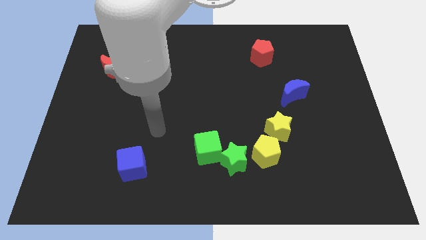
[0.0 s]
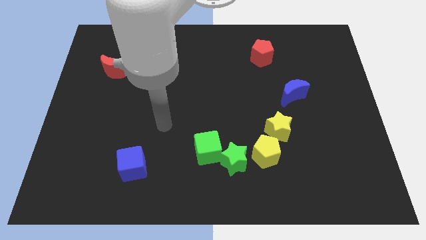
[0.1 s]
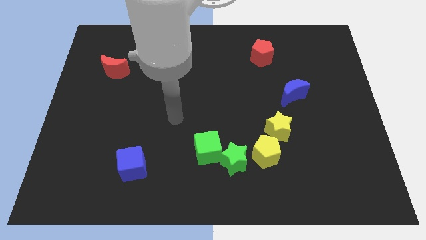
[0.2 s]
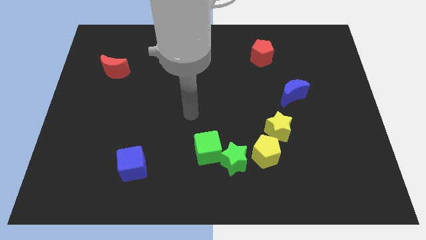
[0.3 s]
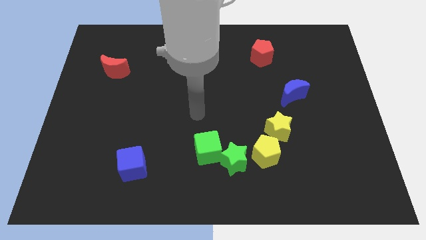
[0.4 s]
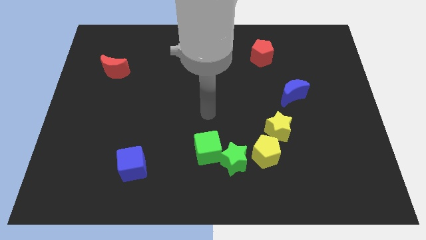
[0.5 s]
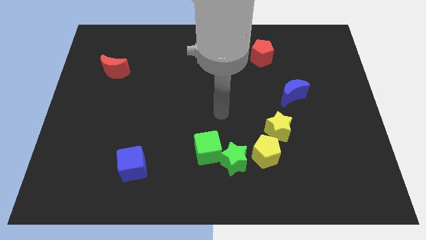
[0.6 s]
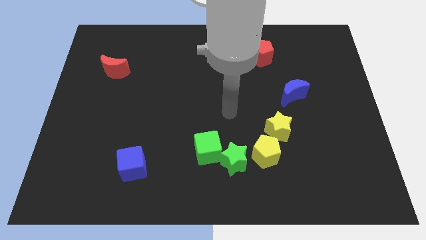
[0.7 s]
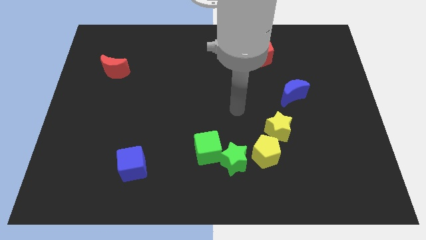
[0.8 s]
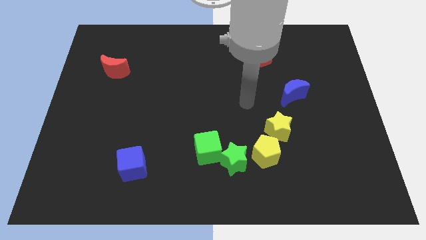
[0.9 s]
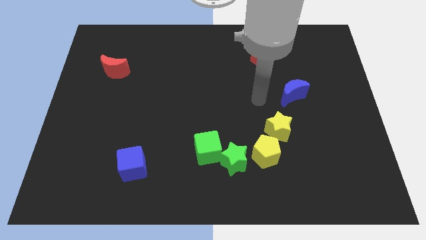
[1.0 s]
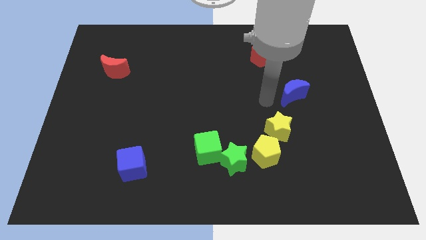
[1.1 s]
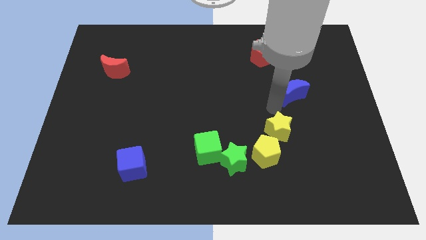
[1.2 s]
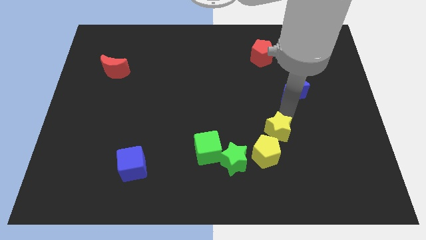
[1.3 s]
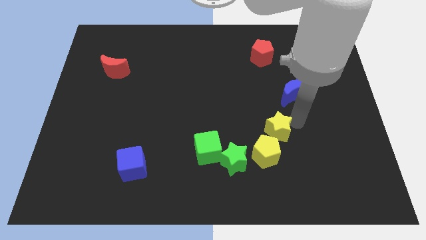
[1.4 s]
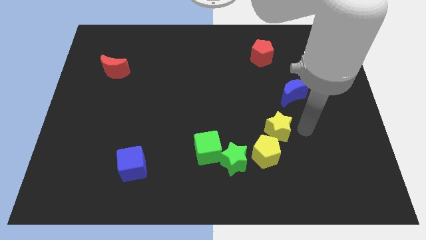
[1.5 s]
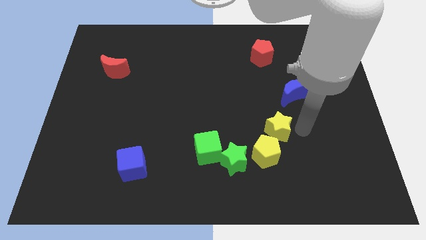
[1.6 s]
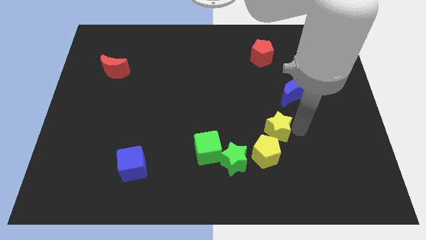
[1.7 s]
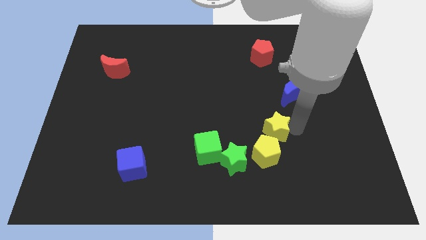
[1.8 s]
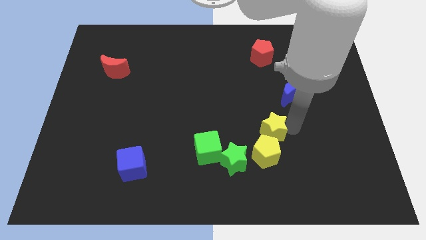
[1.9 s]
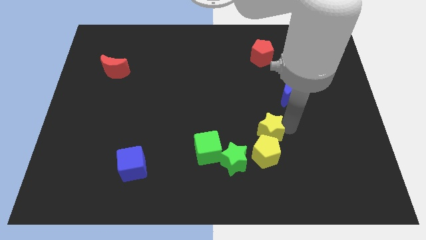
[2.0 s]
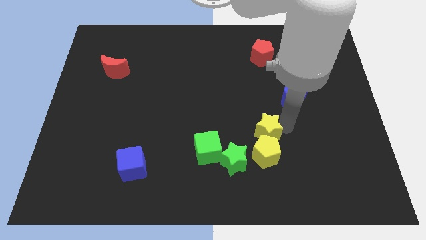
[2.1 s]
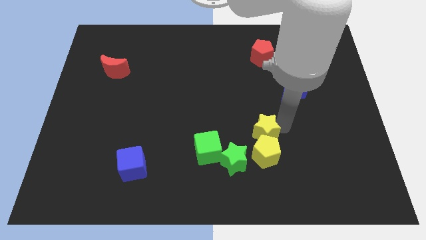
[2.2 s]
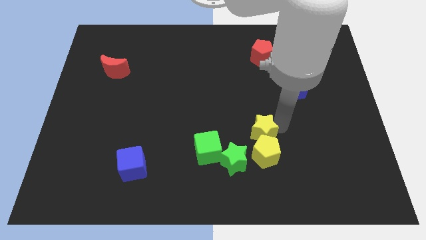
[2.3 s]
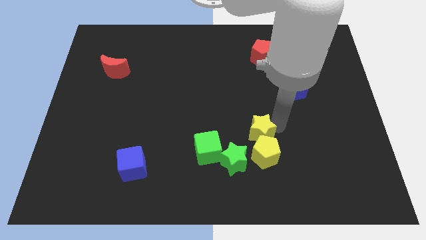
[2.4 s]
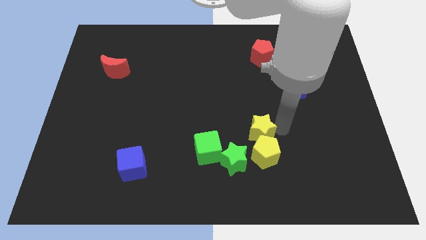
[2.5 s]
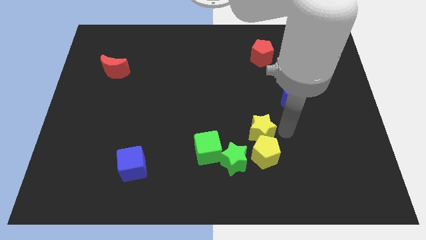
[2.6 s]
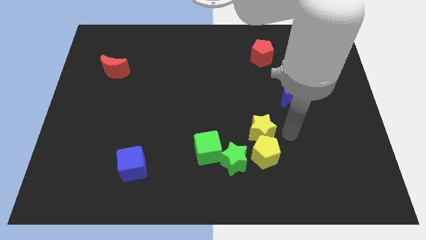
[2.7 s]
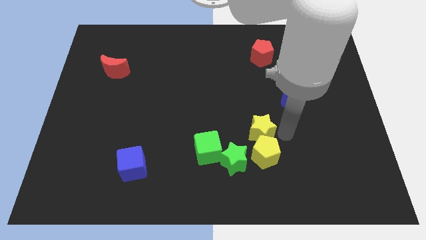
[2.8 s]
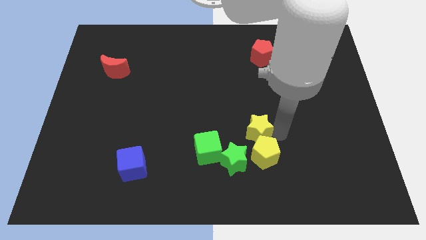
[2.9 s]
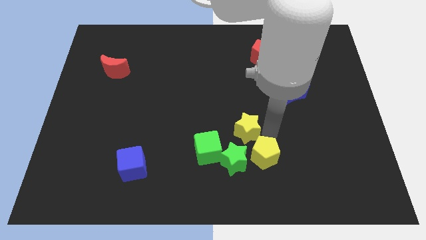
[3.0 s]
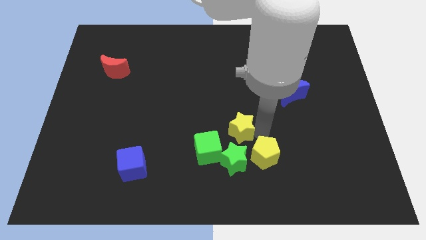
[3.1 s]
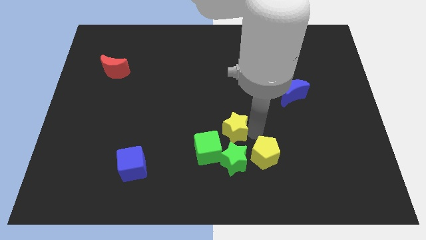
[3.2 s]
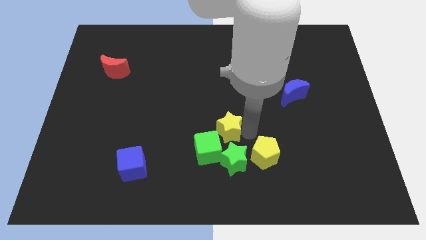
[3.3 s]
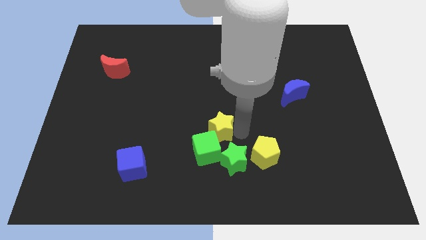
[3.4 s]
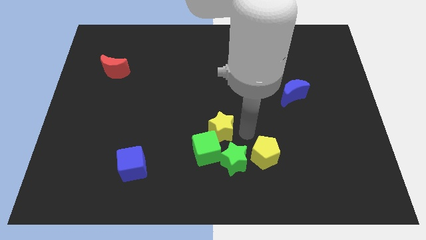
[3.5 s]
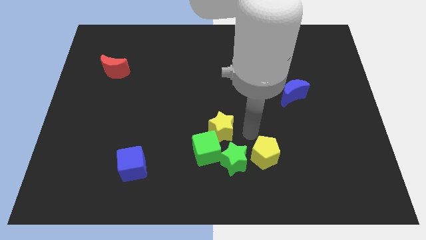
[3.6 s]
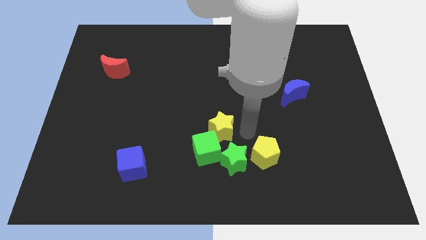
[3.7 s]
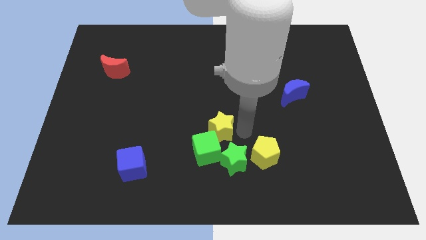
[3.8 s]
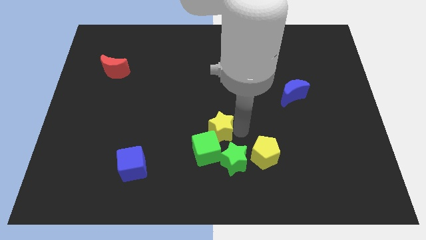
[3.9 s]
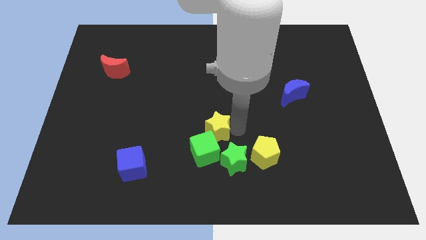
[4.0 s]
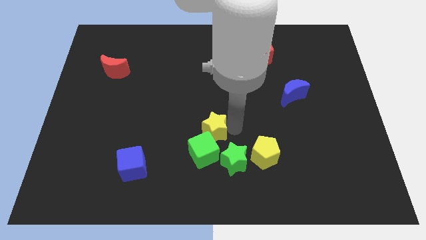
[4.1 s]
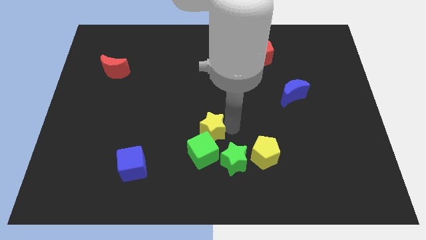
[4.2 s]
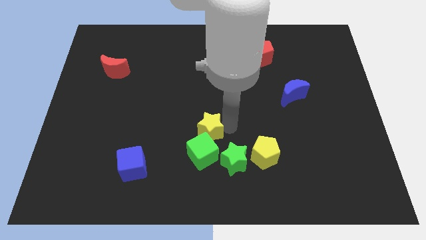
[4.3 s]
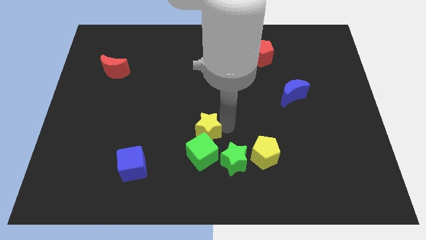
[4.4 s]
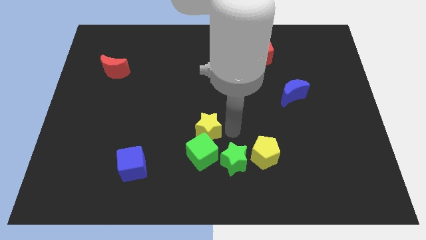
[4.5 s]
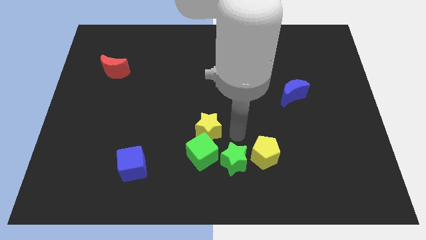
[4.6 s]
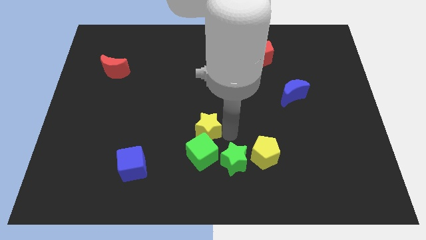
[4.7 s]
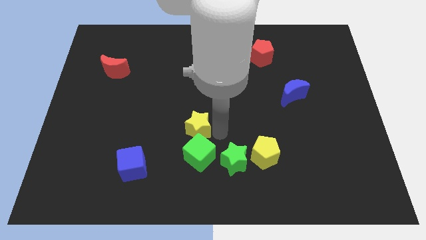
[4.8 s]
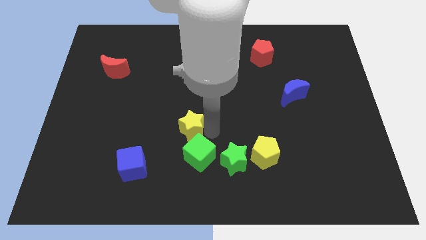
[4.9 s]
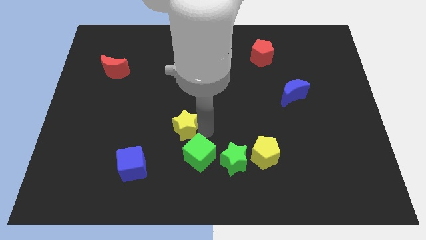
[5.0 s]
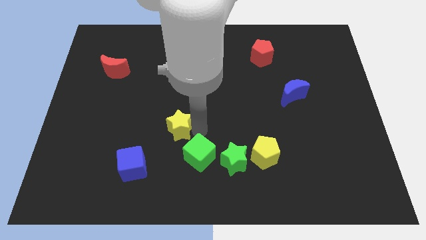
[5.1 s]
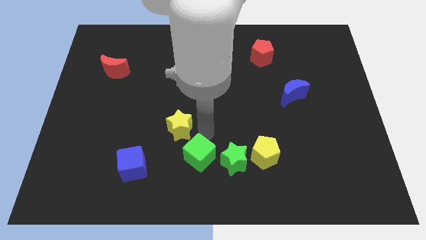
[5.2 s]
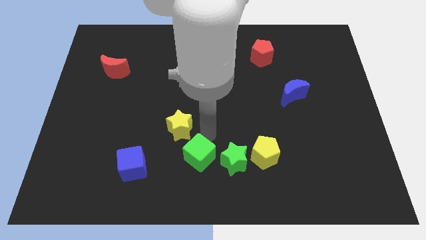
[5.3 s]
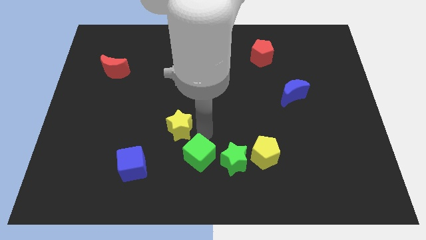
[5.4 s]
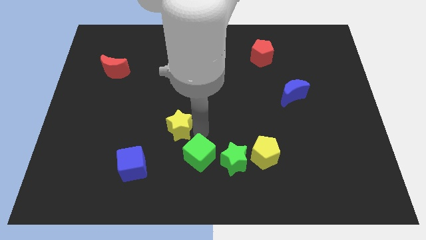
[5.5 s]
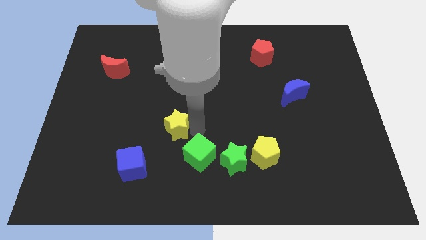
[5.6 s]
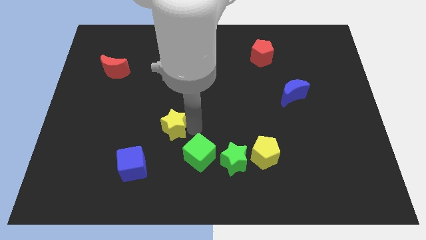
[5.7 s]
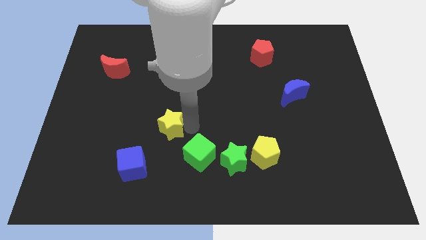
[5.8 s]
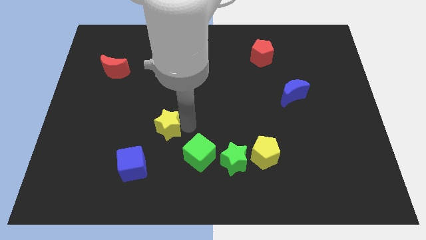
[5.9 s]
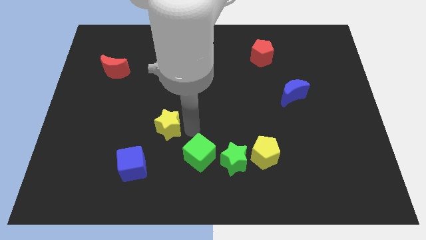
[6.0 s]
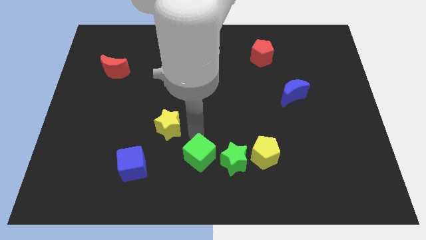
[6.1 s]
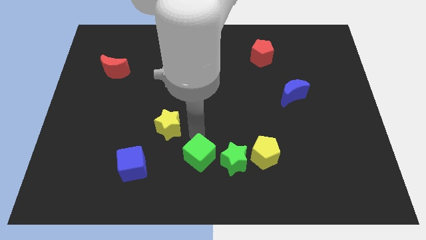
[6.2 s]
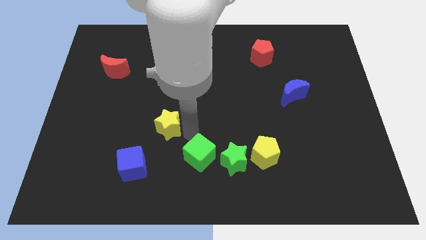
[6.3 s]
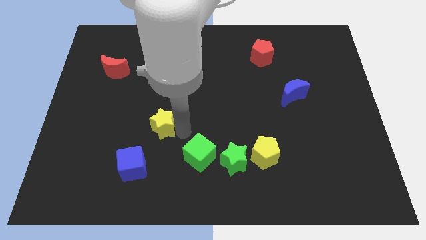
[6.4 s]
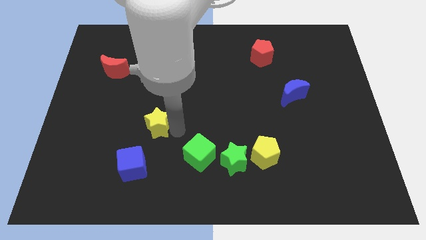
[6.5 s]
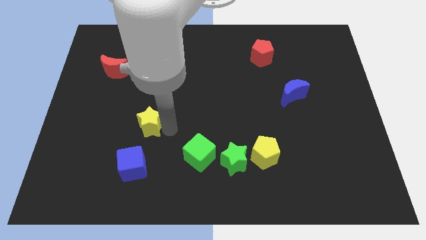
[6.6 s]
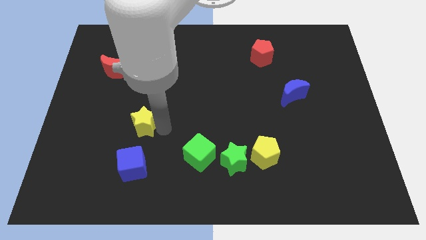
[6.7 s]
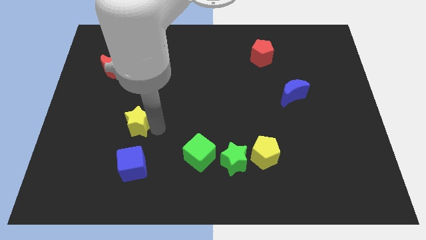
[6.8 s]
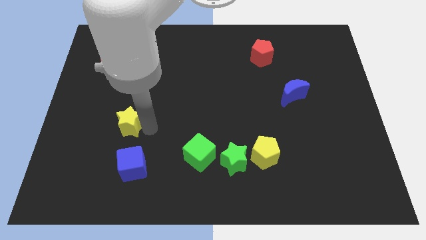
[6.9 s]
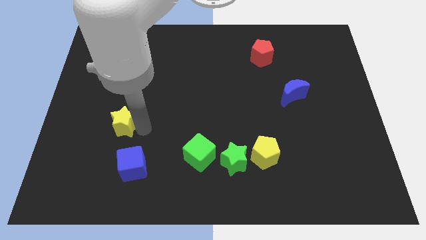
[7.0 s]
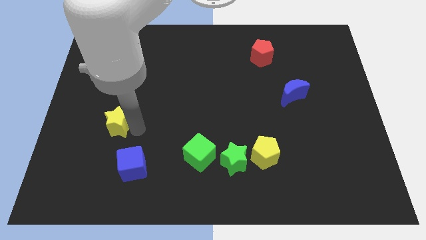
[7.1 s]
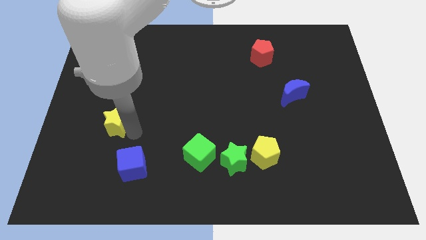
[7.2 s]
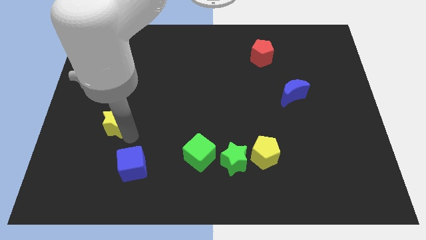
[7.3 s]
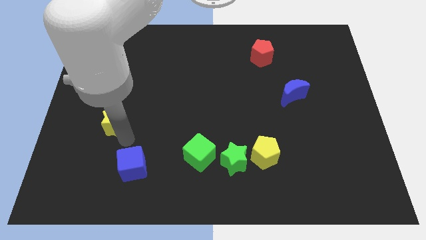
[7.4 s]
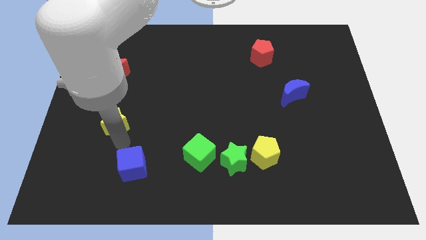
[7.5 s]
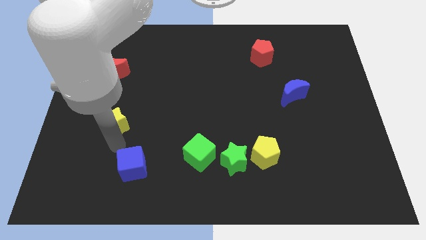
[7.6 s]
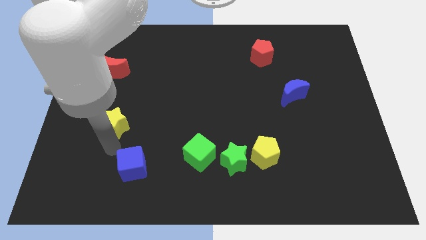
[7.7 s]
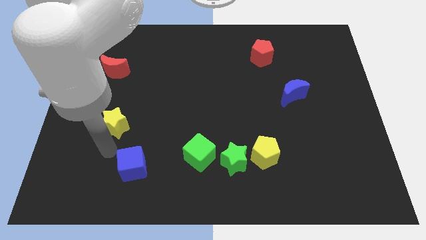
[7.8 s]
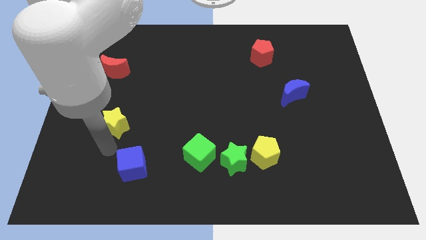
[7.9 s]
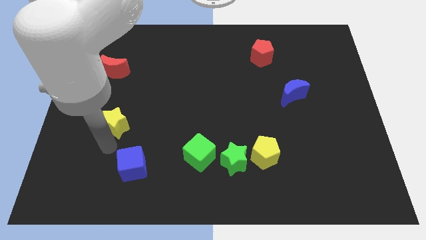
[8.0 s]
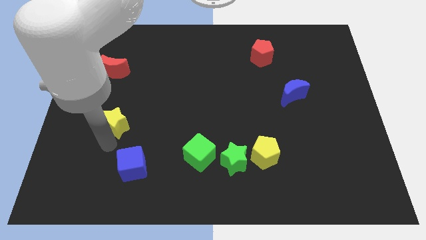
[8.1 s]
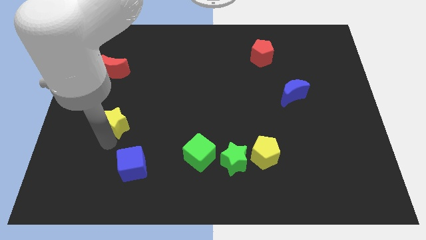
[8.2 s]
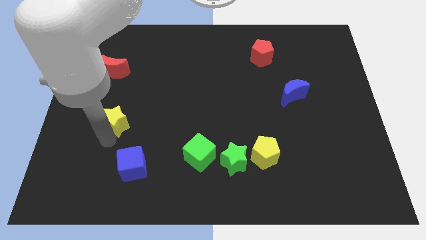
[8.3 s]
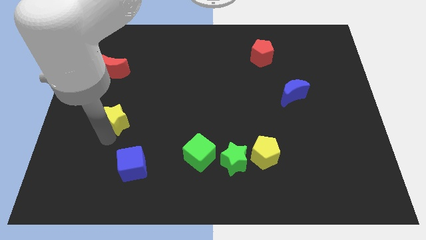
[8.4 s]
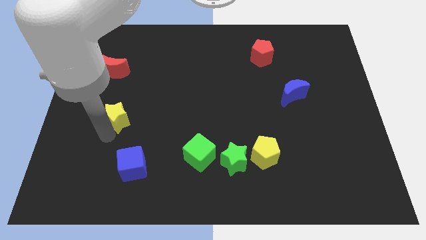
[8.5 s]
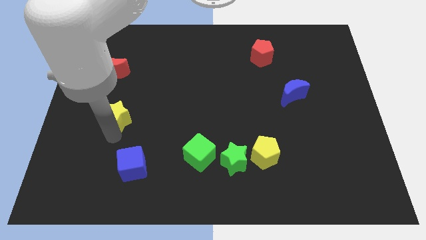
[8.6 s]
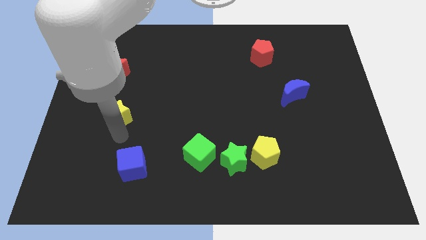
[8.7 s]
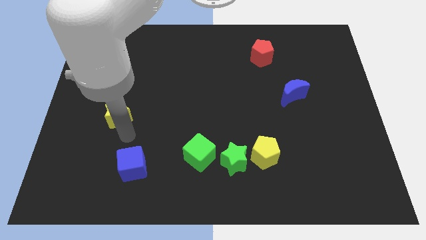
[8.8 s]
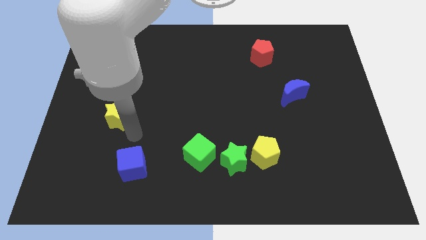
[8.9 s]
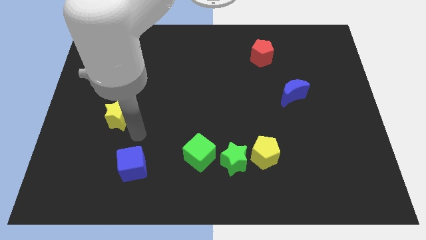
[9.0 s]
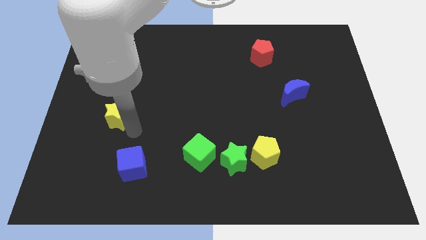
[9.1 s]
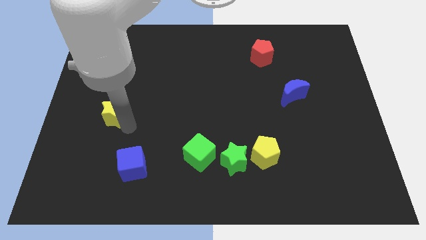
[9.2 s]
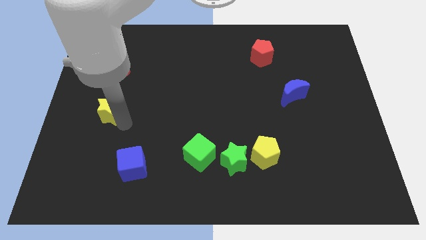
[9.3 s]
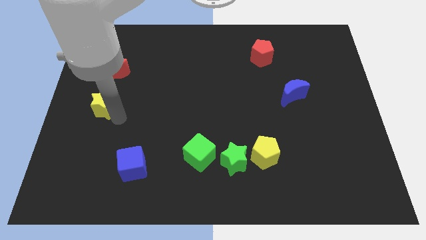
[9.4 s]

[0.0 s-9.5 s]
move the yellow star to the left side of the board
